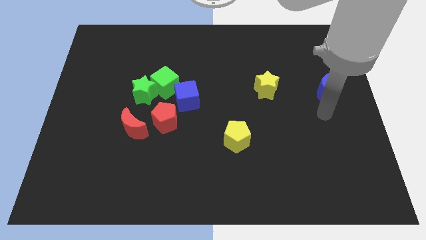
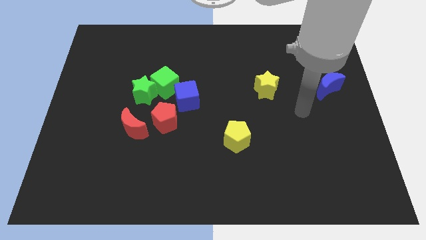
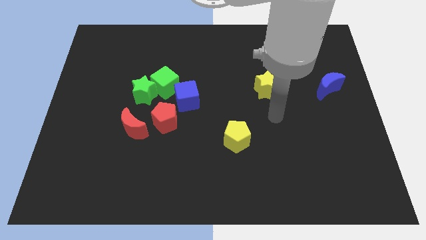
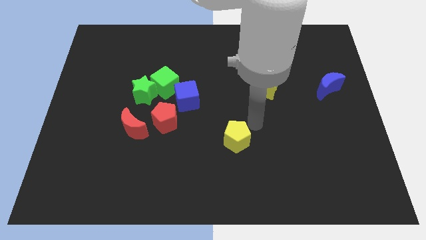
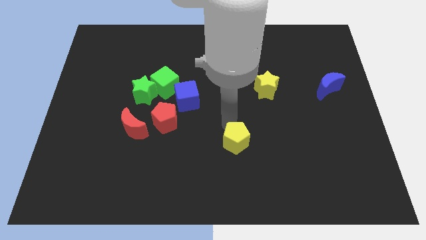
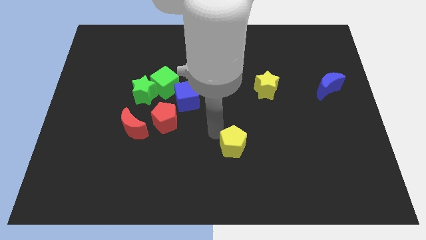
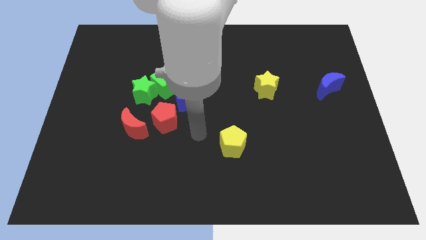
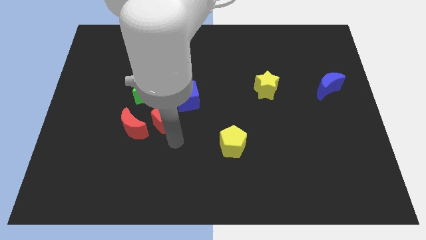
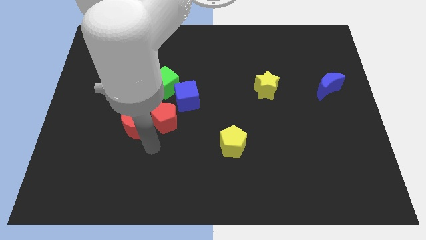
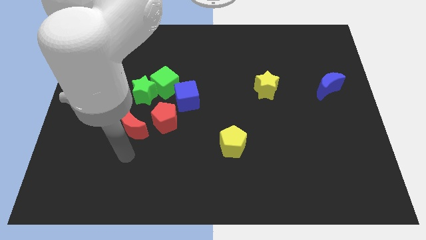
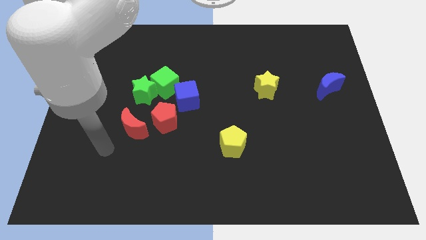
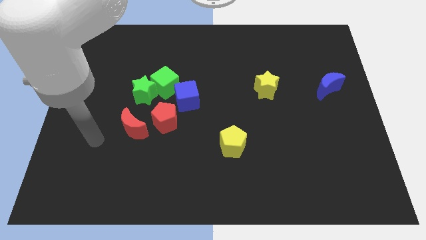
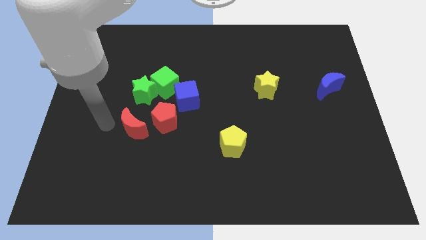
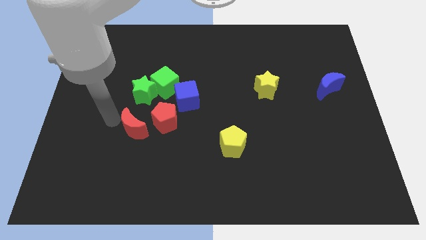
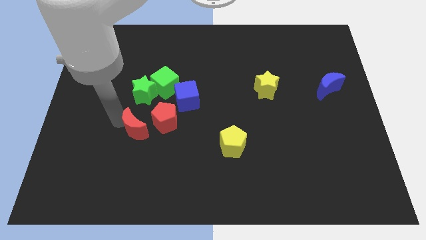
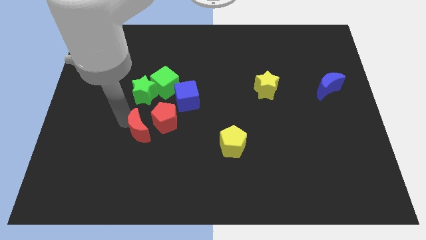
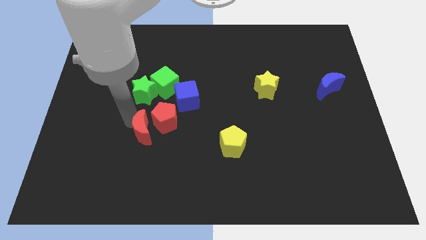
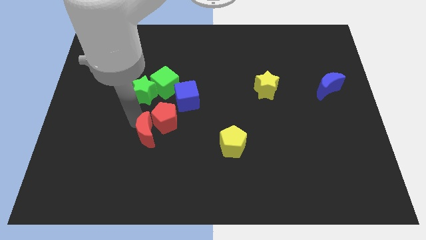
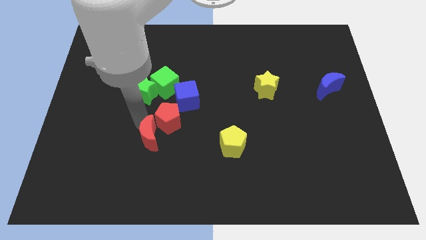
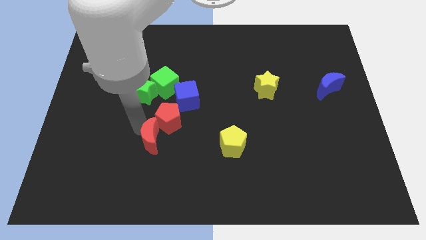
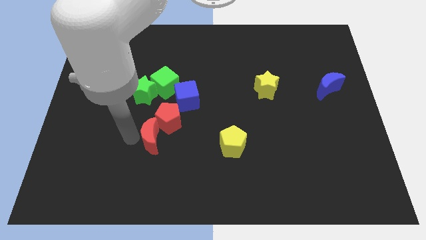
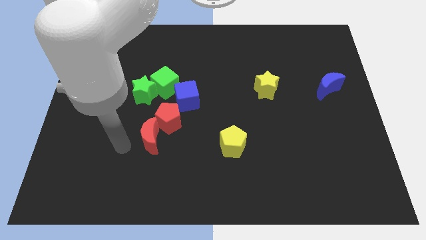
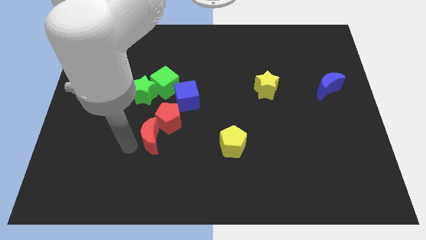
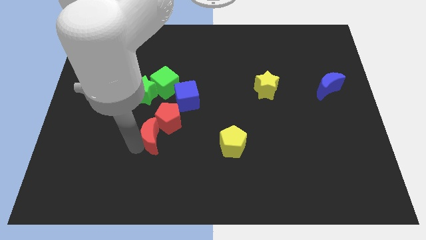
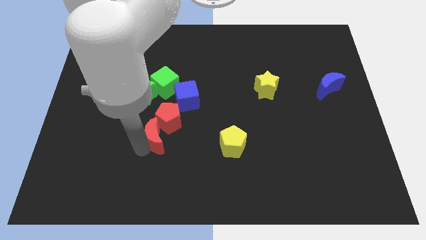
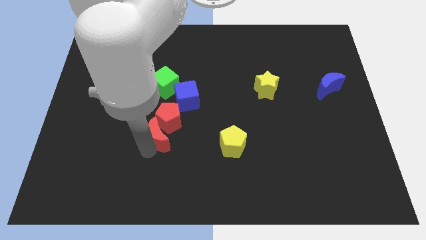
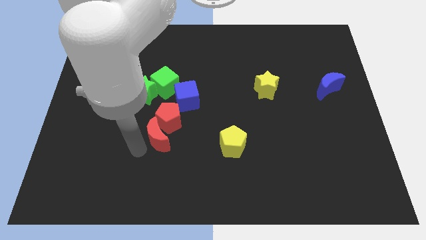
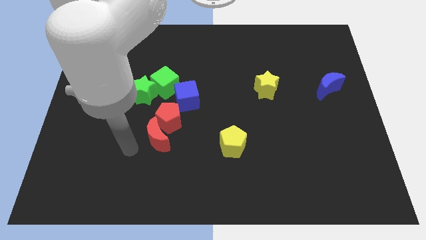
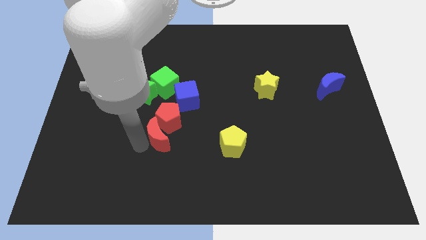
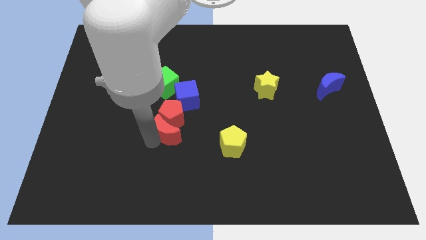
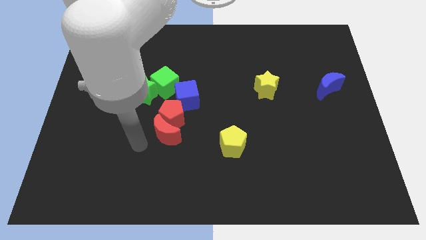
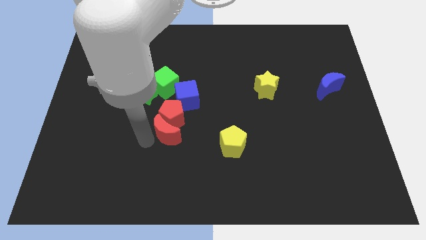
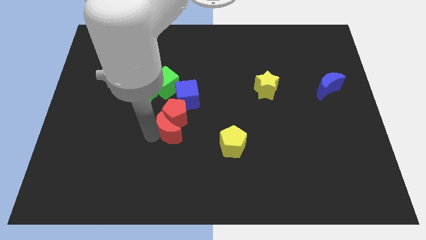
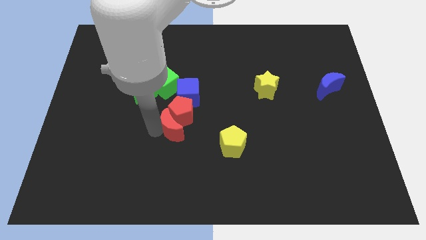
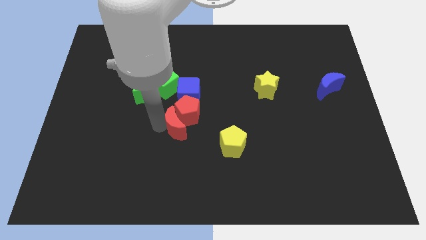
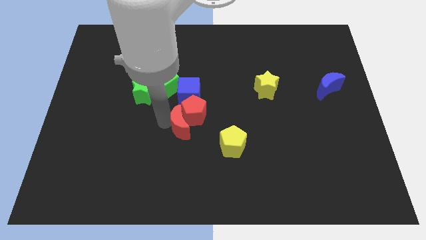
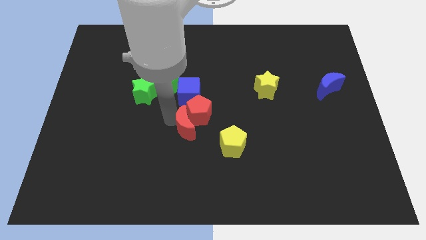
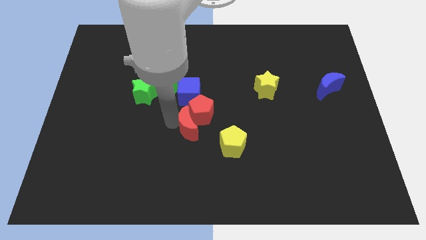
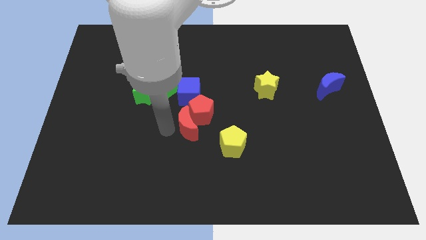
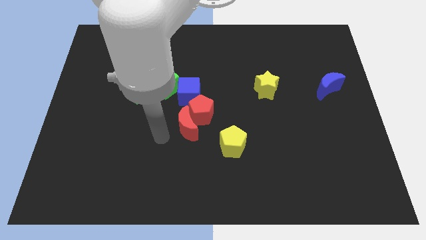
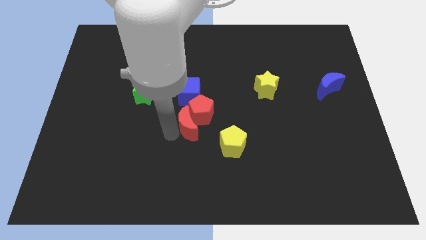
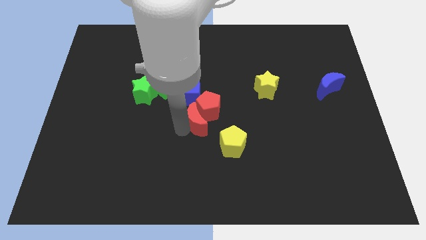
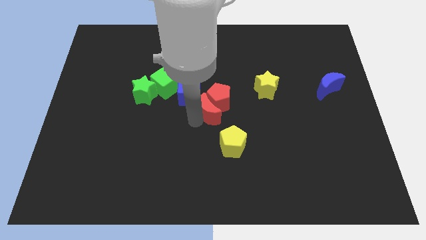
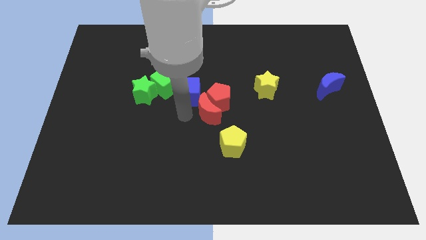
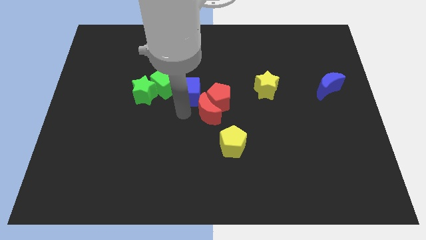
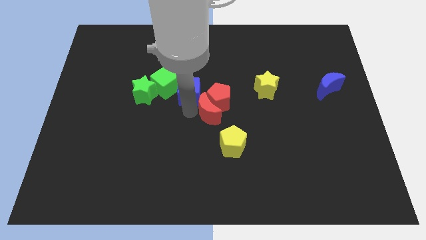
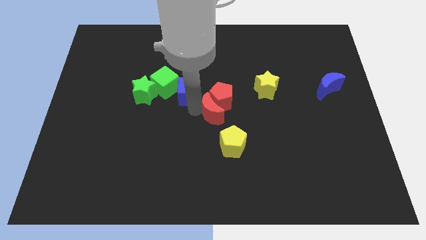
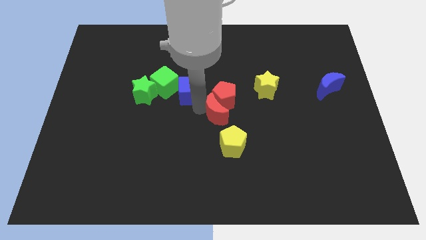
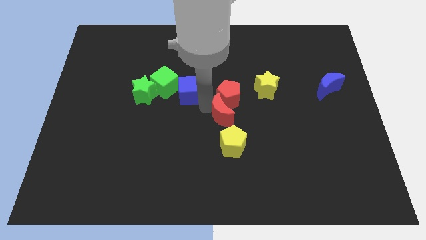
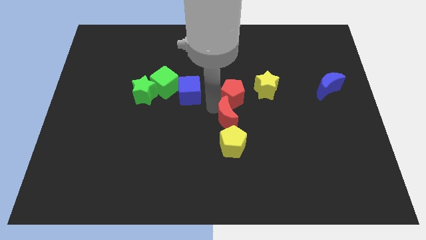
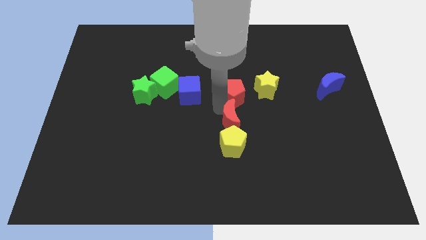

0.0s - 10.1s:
put the red moon diagonally up and to the right of the yellow pentagon

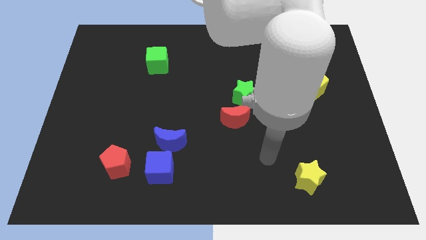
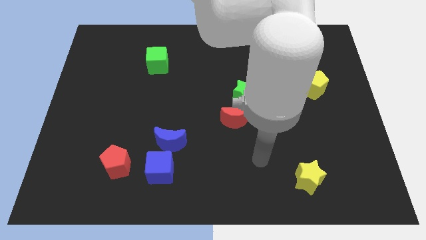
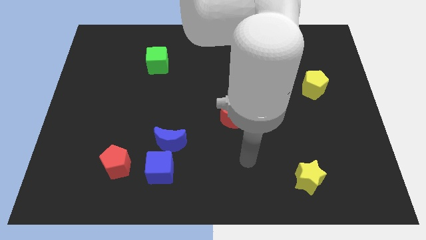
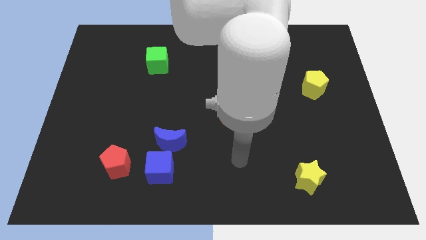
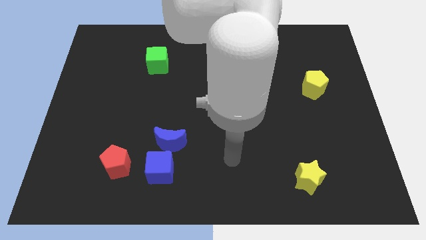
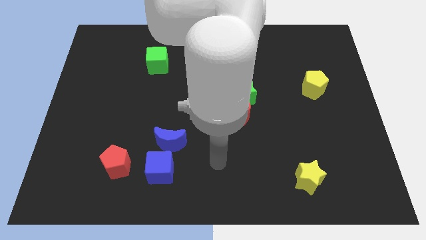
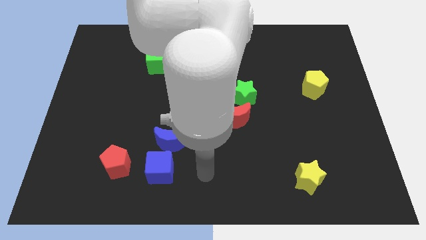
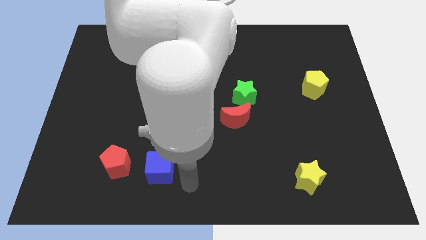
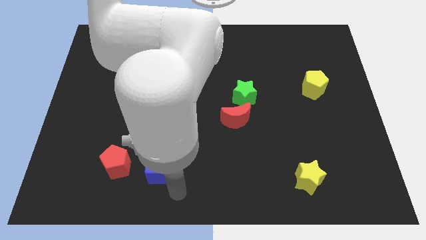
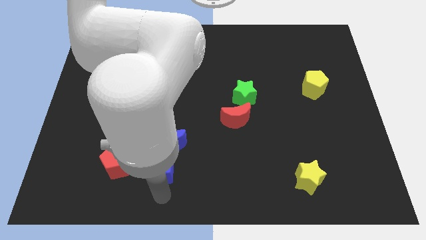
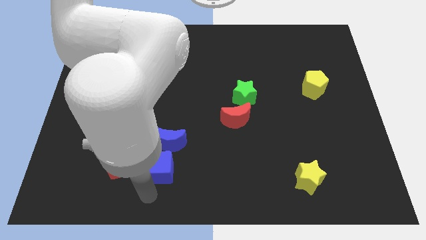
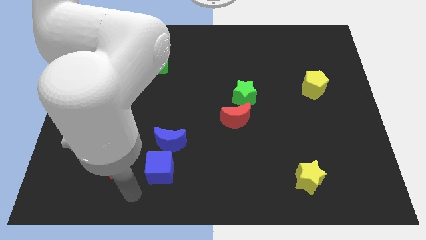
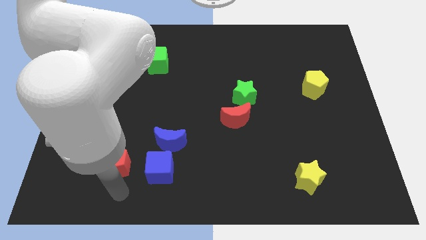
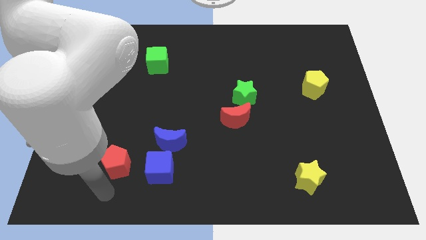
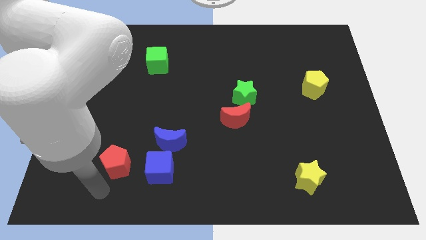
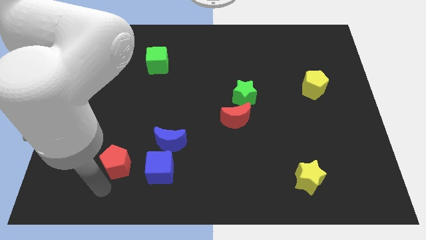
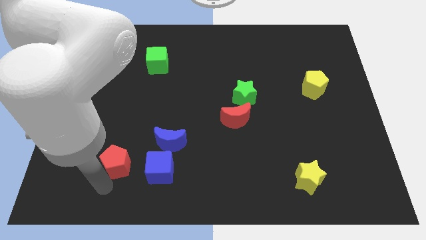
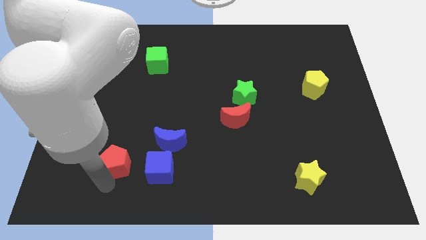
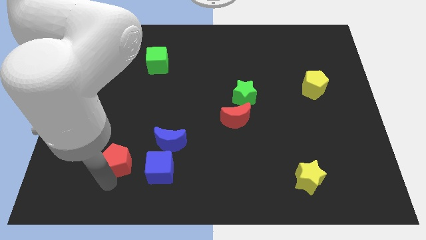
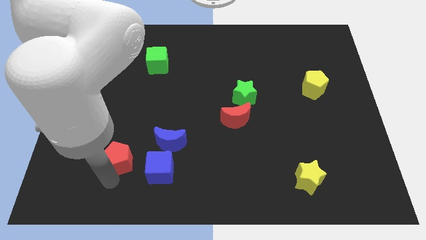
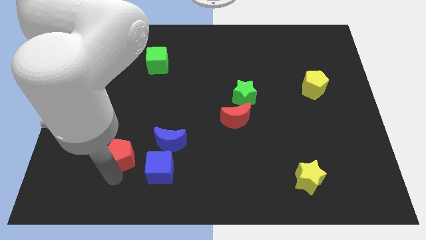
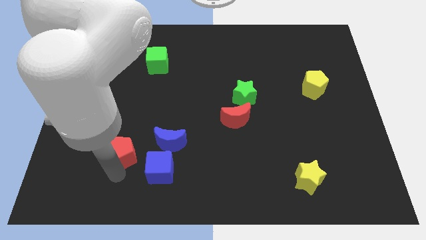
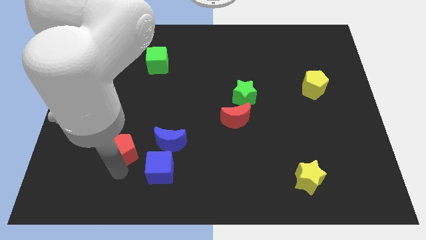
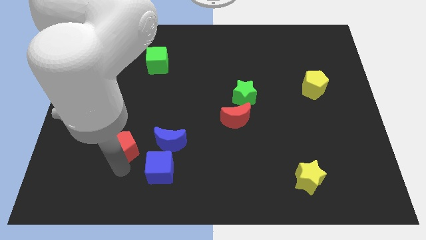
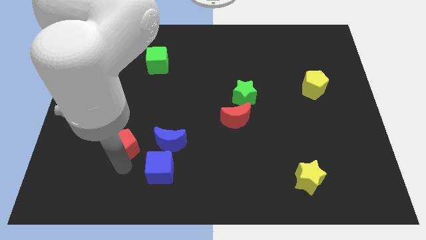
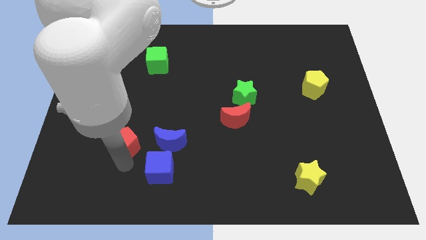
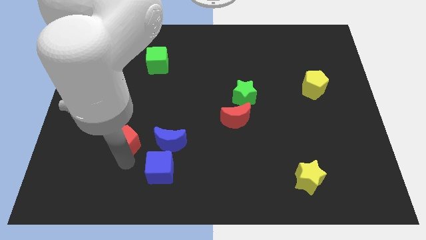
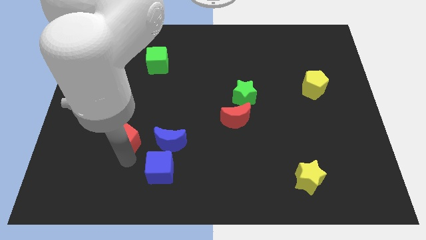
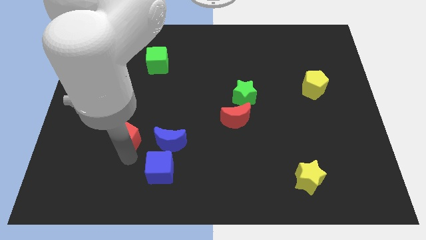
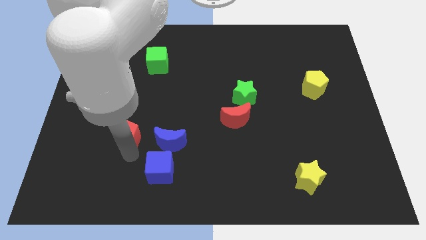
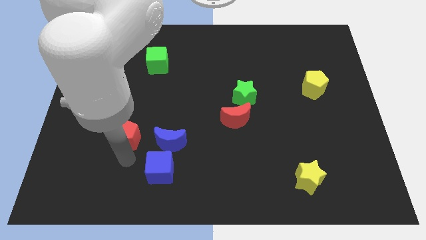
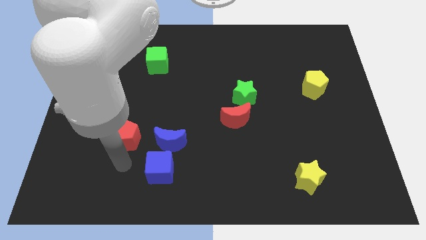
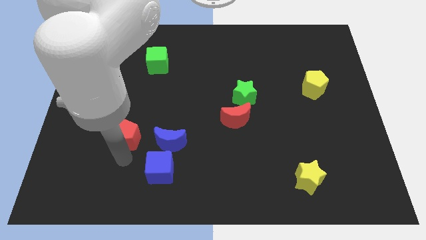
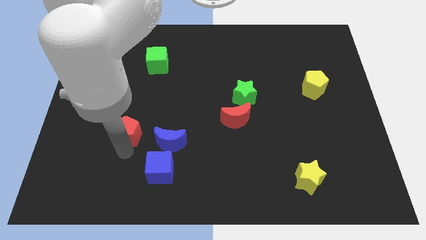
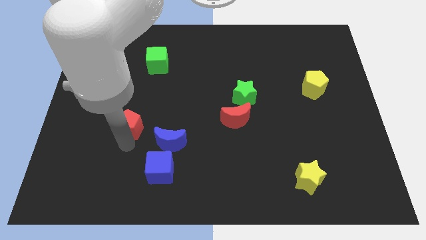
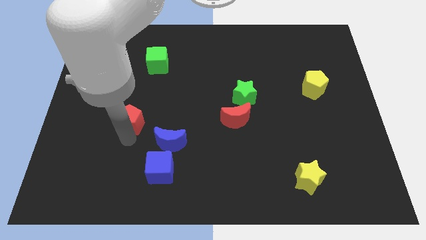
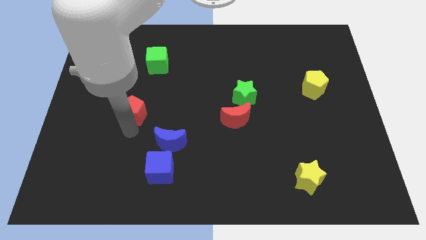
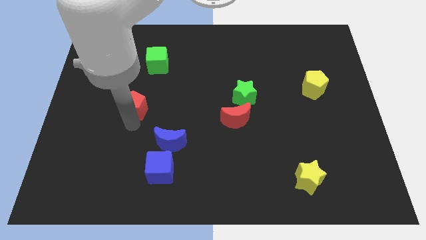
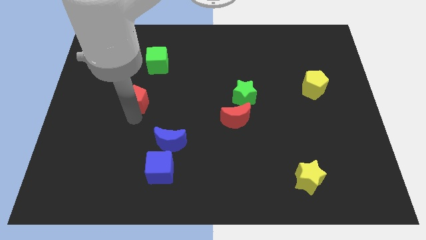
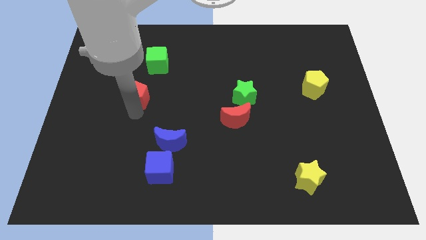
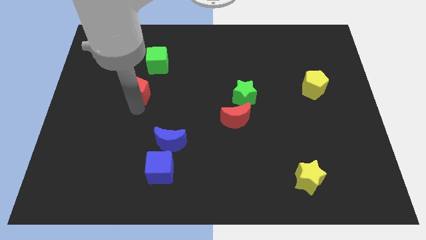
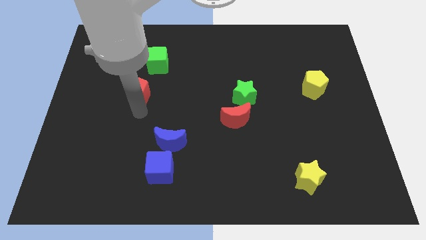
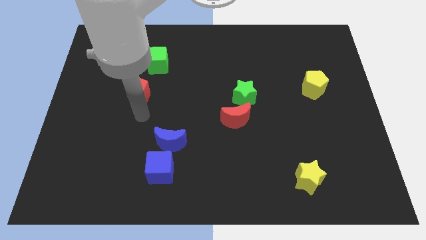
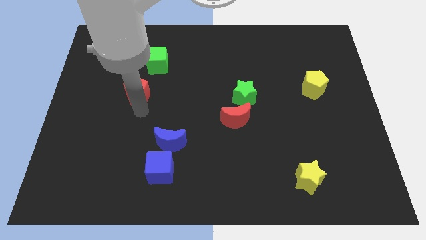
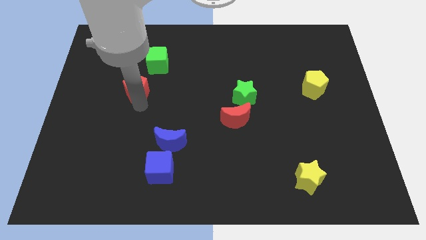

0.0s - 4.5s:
put the red pentagon diagonally down and to the left of the green cube
